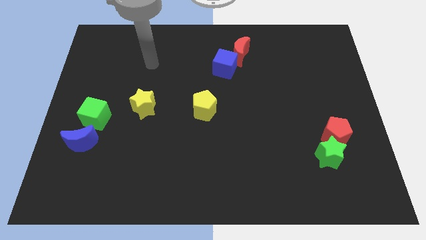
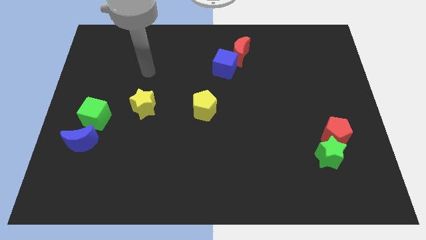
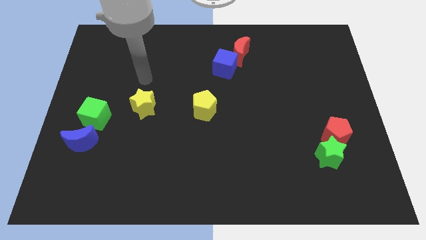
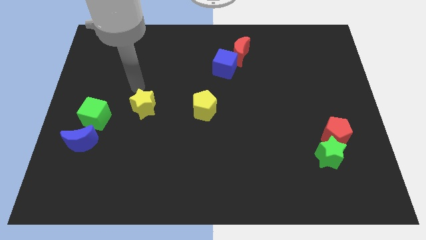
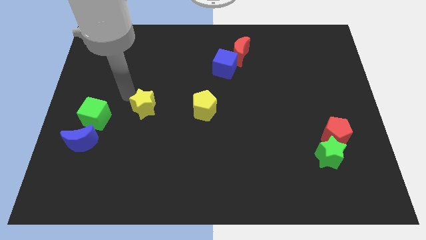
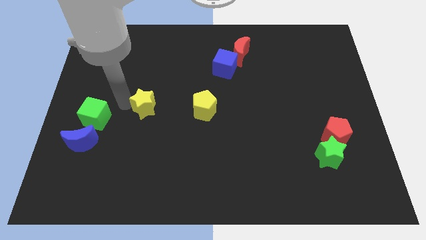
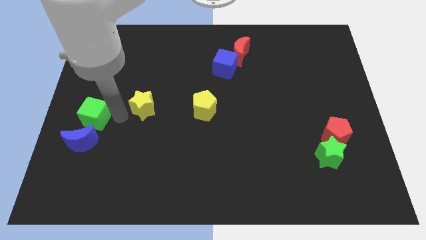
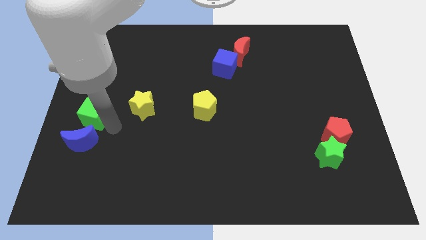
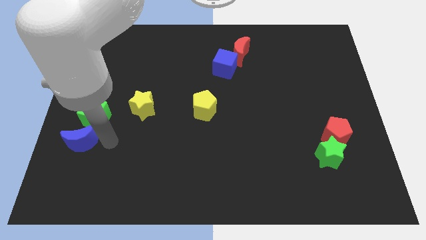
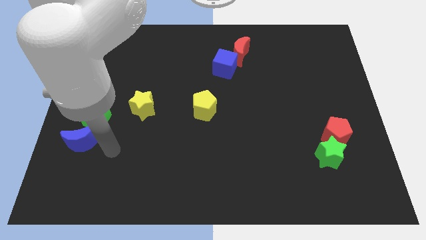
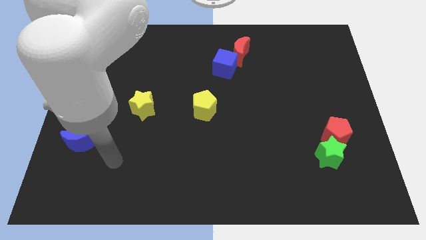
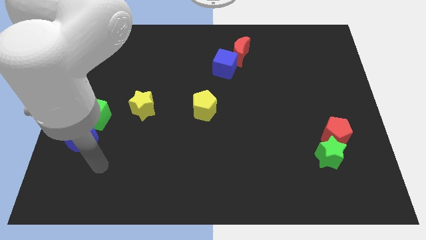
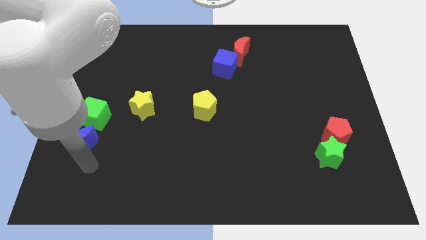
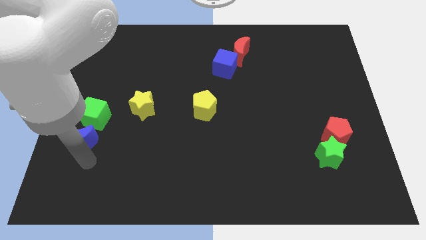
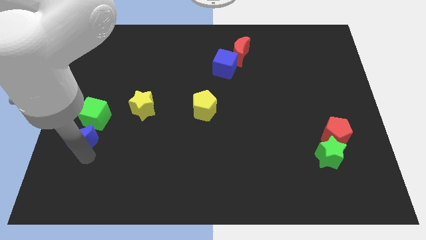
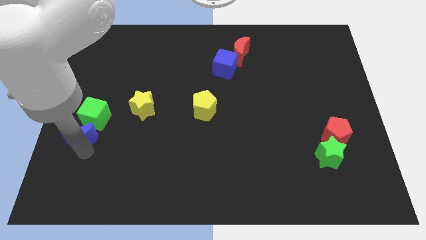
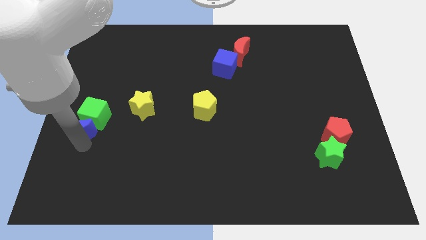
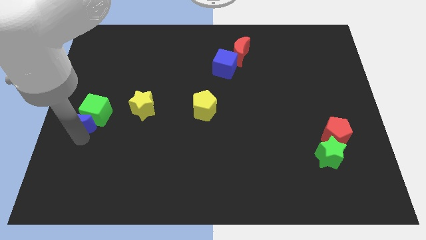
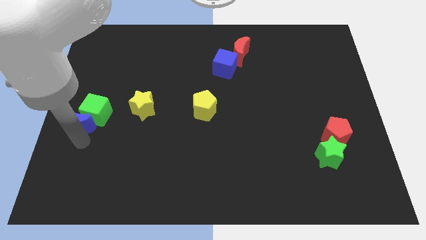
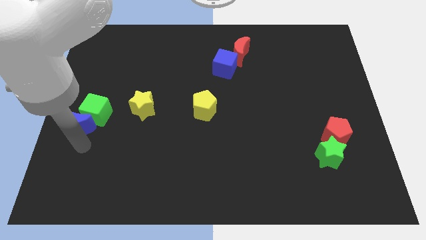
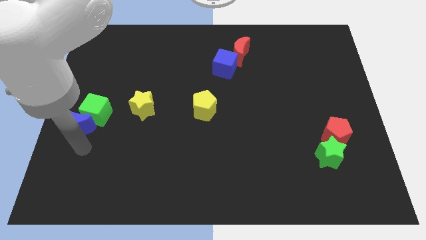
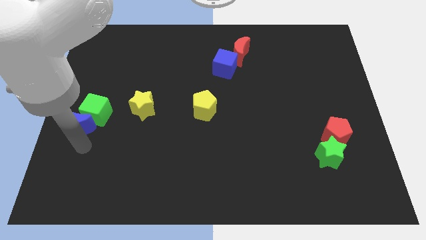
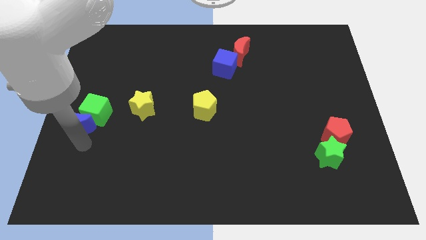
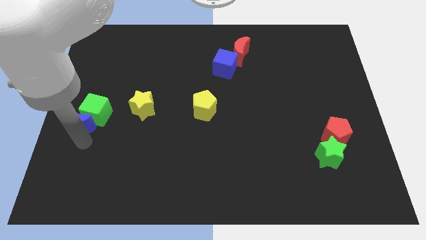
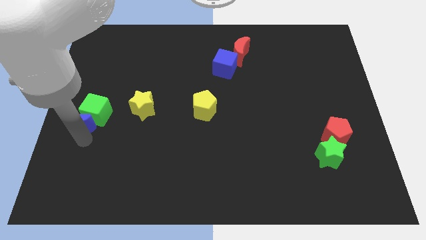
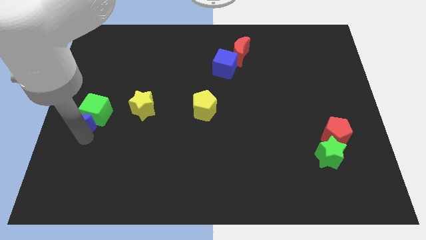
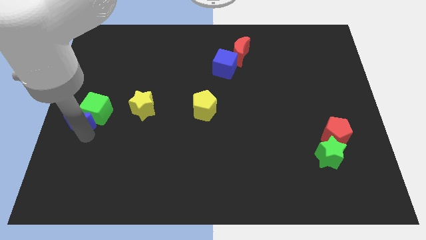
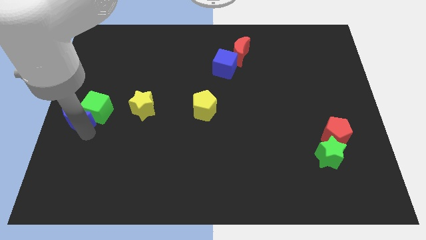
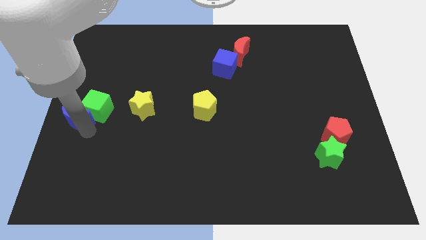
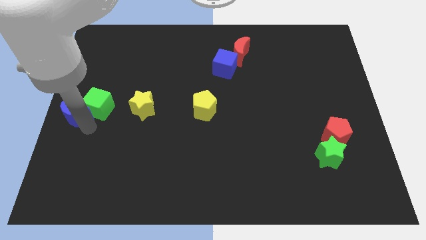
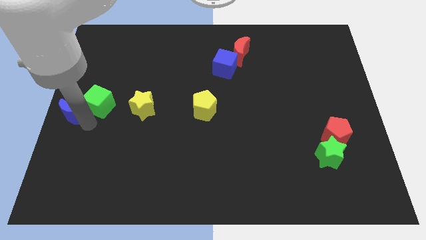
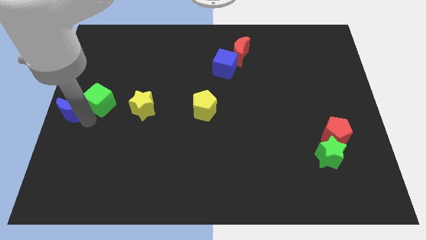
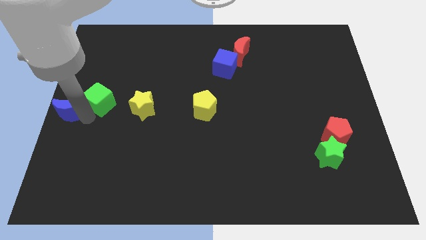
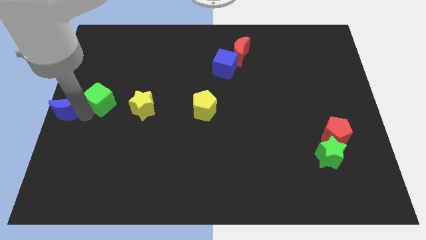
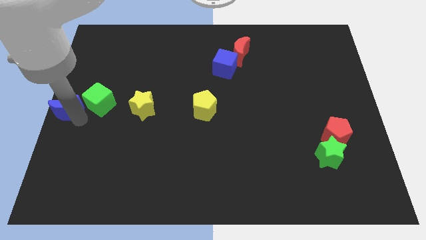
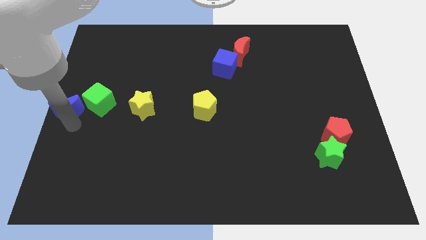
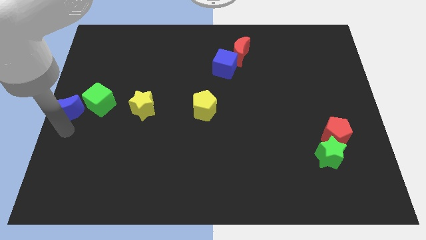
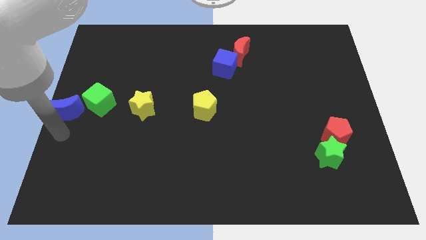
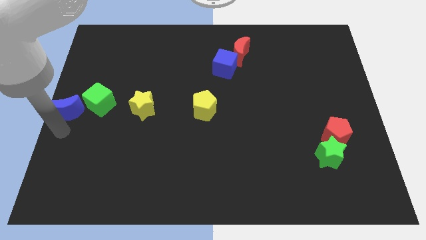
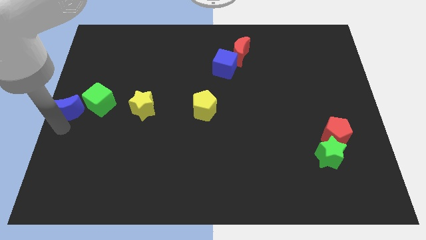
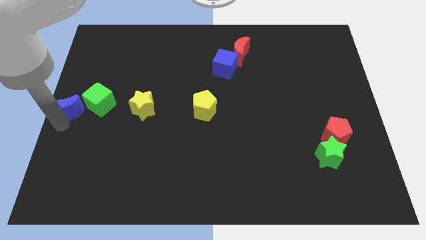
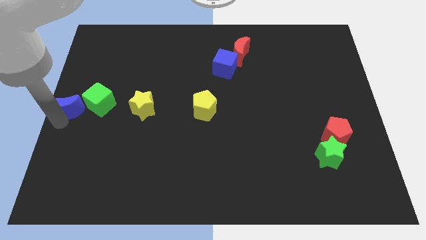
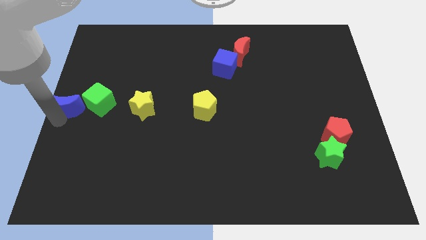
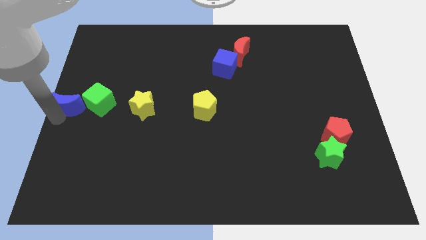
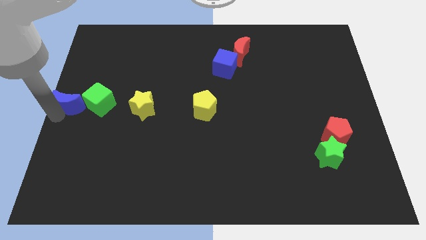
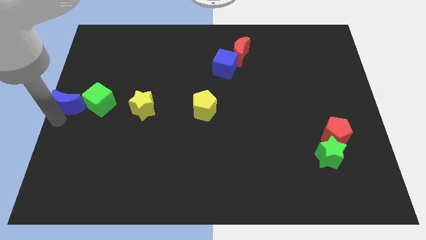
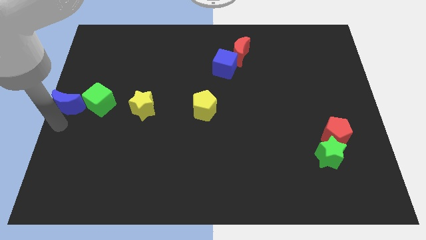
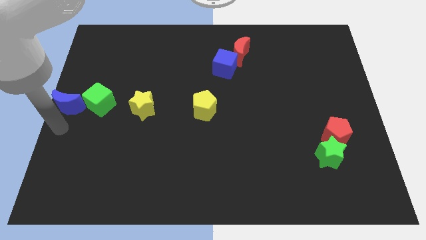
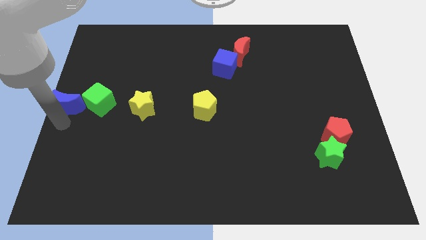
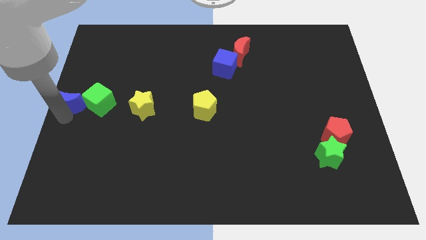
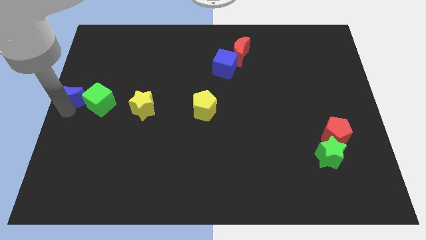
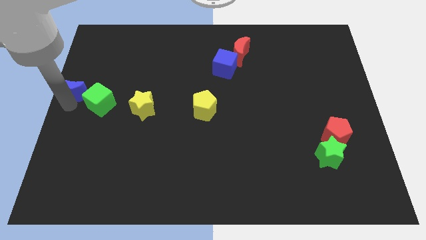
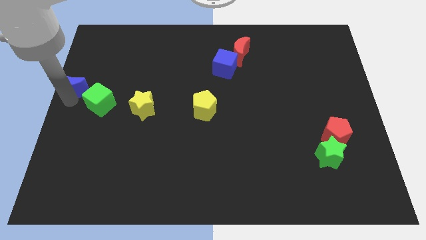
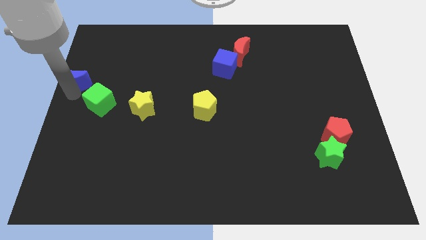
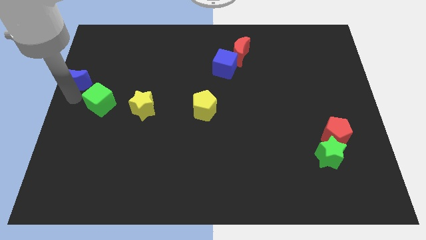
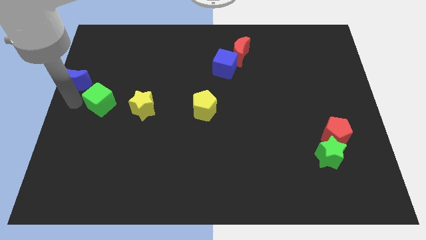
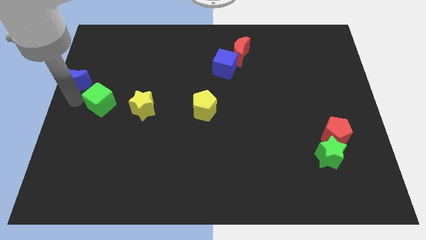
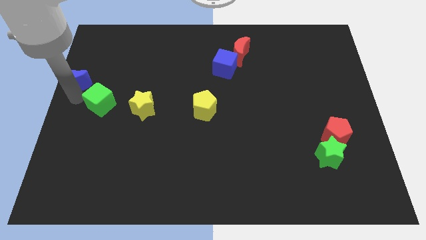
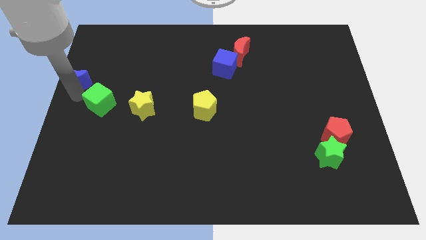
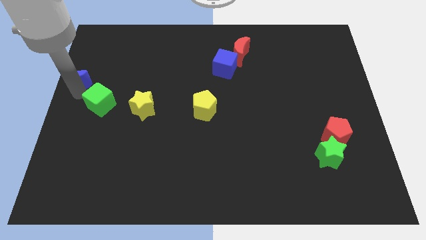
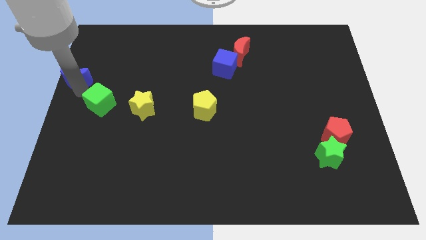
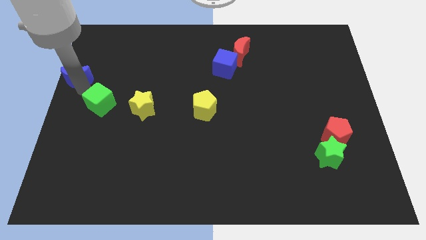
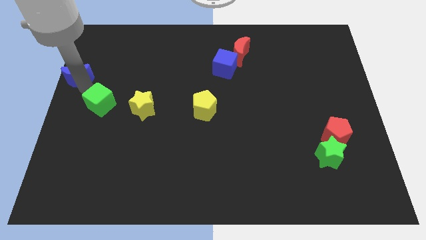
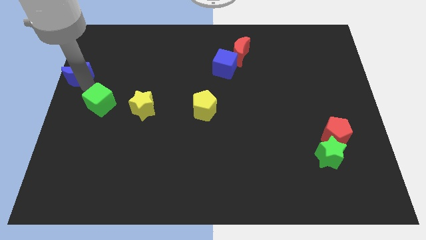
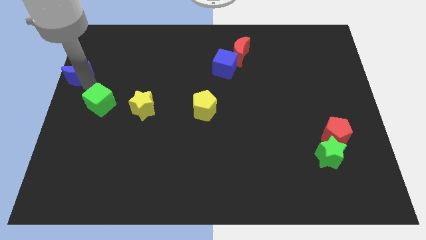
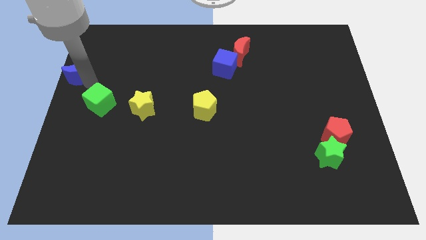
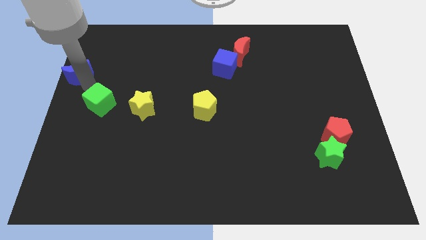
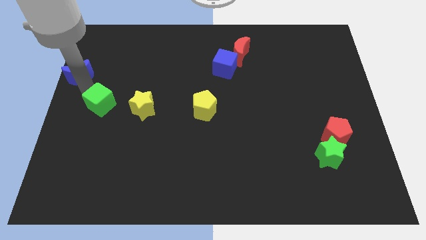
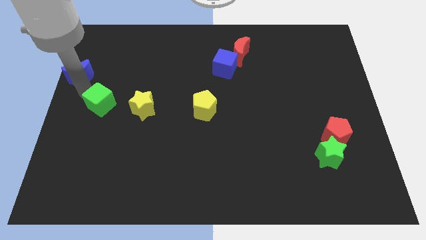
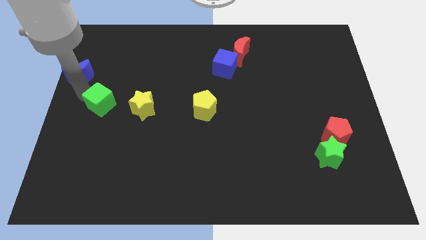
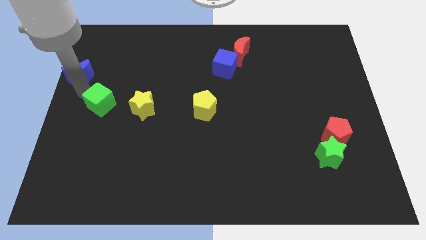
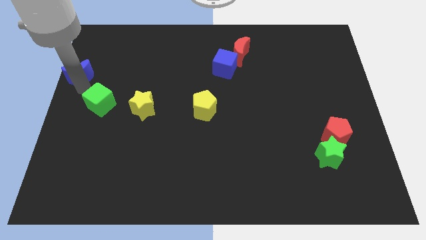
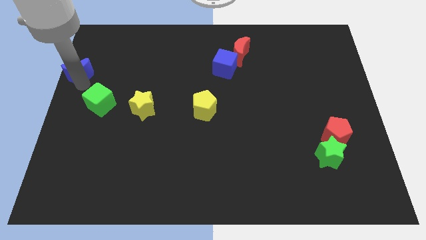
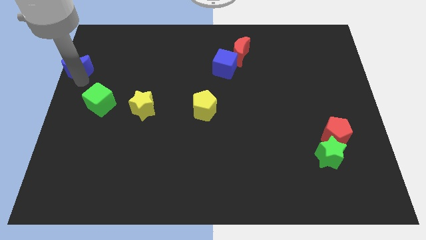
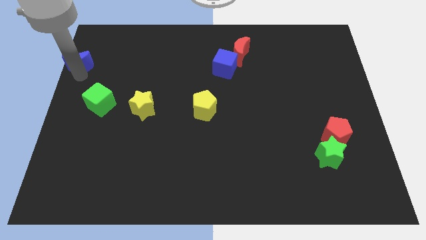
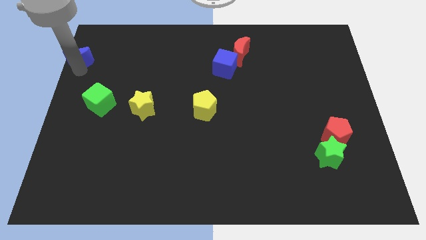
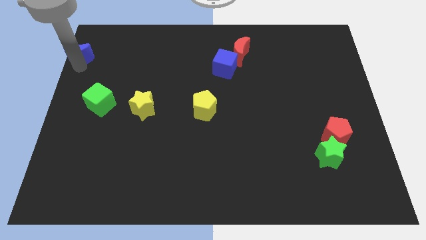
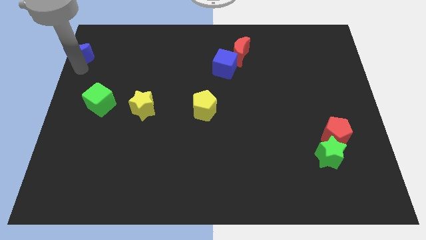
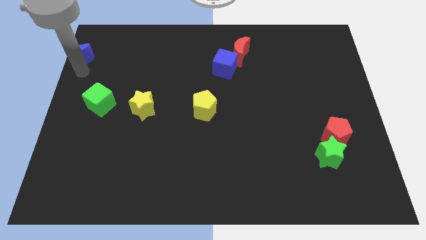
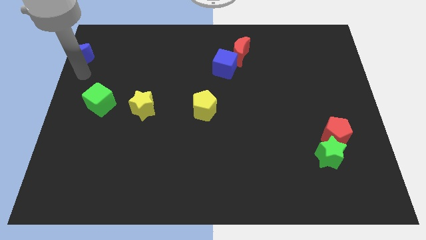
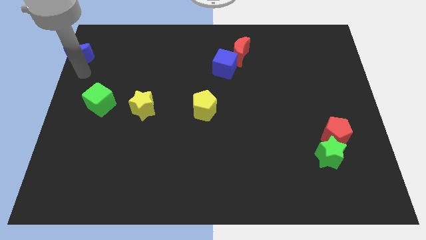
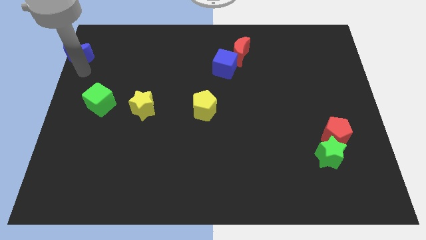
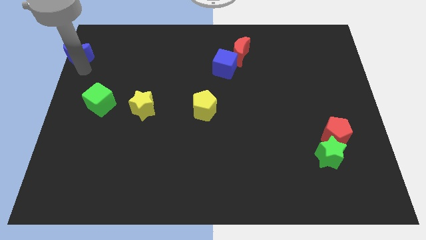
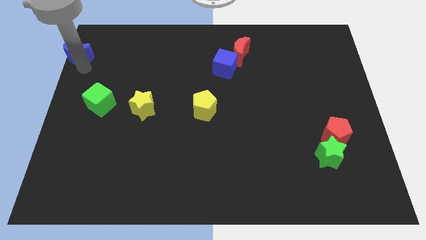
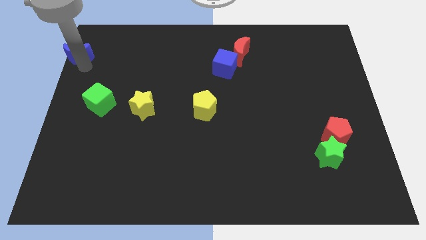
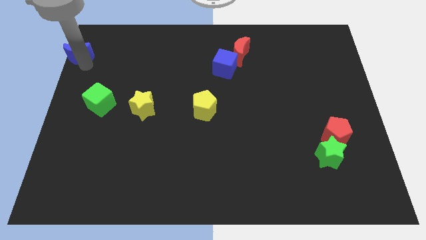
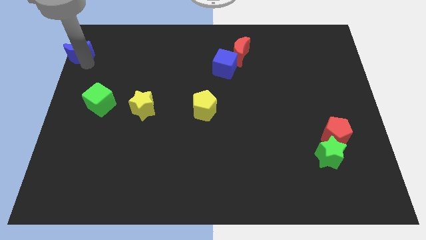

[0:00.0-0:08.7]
move the blue moon to the top left corner
